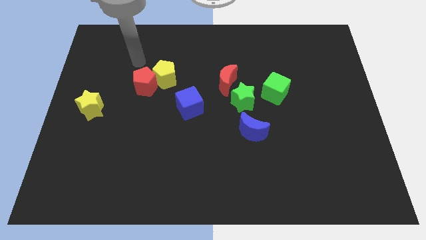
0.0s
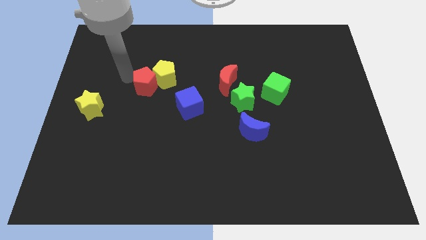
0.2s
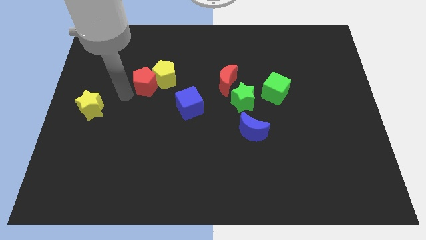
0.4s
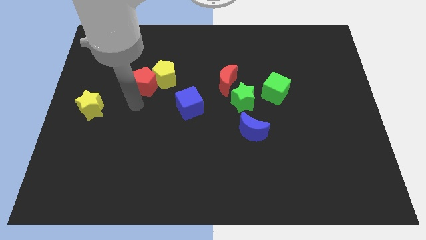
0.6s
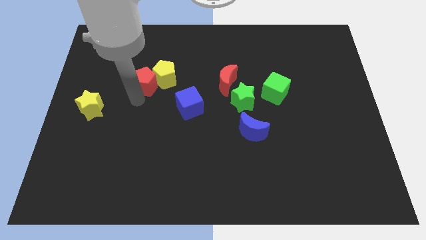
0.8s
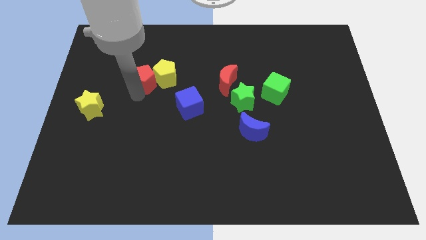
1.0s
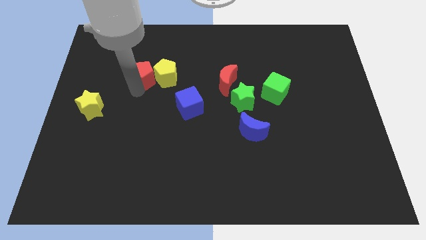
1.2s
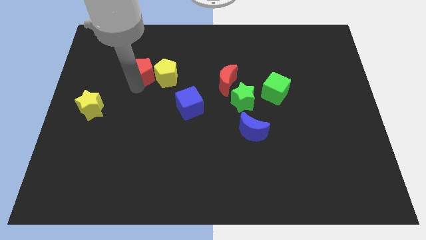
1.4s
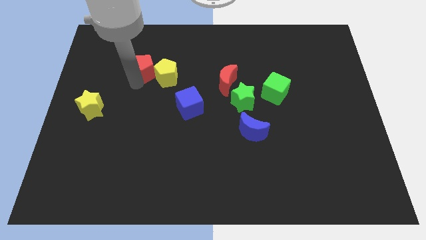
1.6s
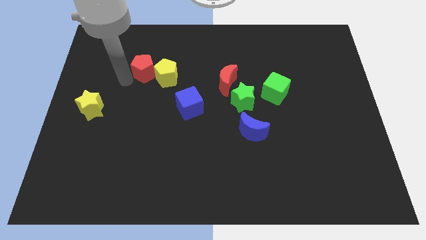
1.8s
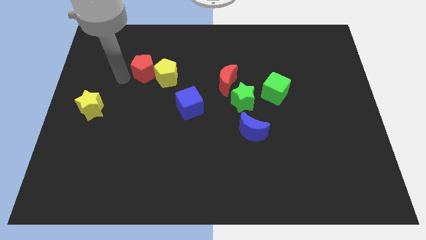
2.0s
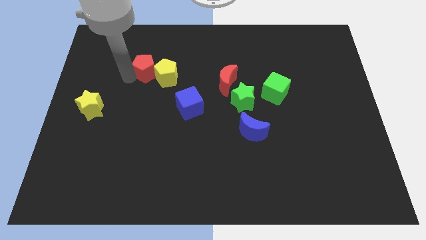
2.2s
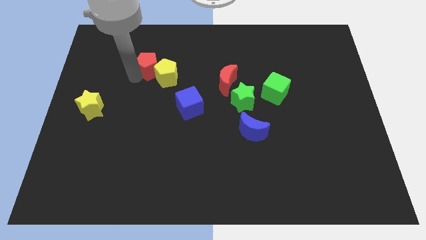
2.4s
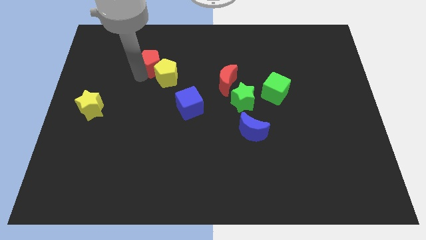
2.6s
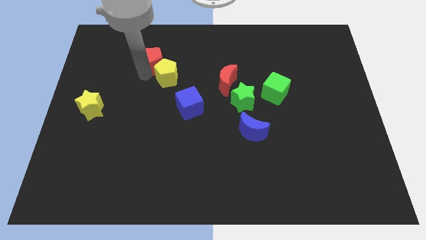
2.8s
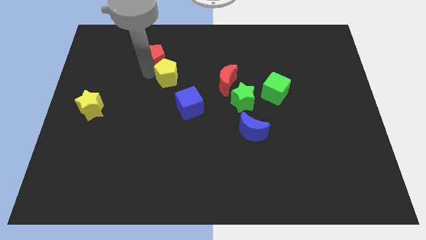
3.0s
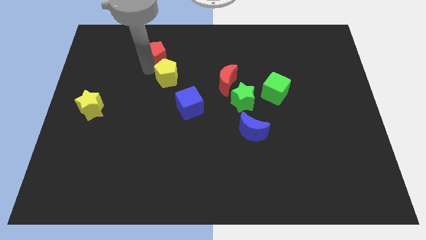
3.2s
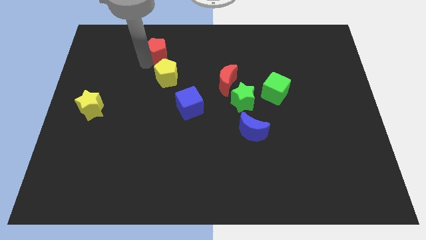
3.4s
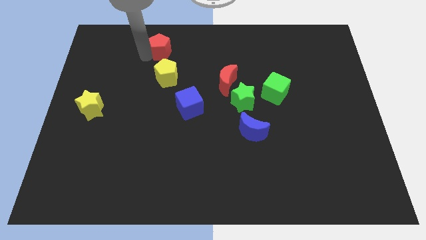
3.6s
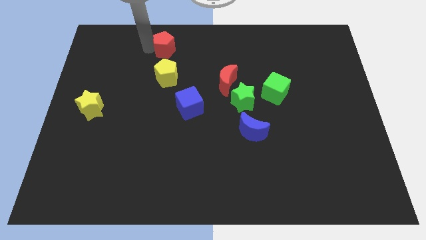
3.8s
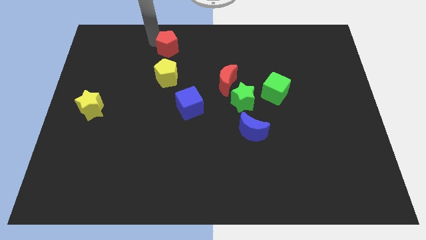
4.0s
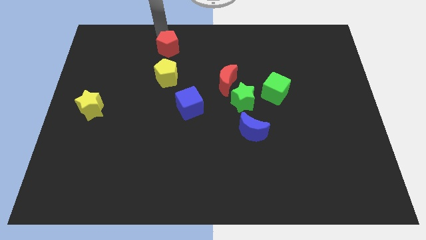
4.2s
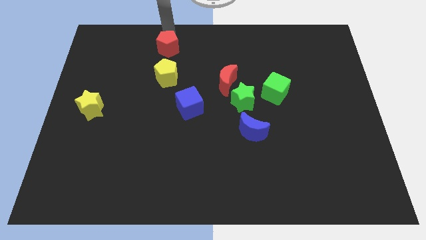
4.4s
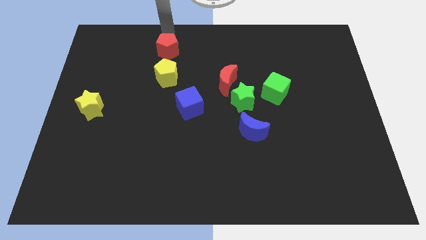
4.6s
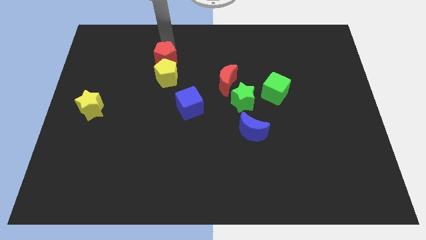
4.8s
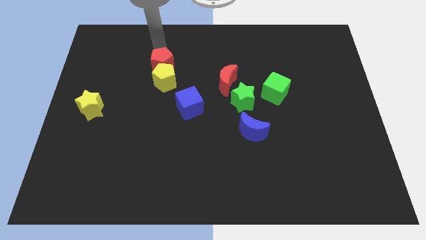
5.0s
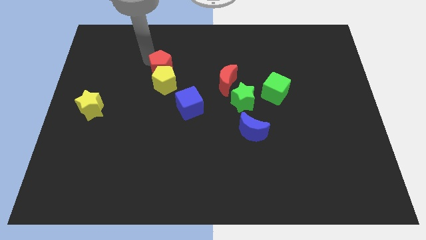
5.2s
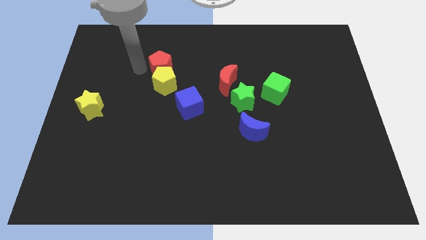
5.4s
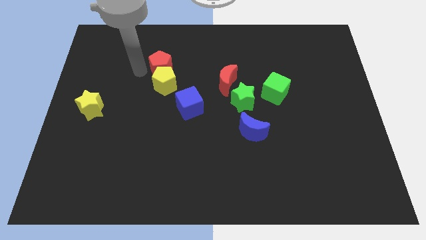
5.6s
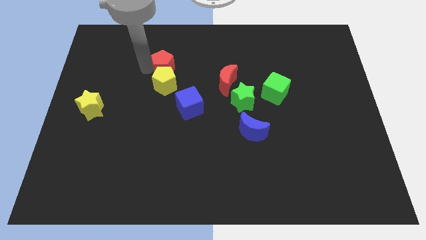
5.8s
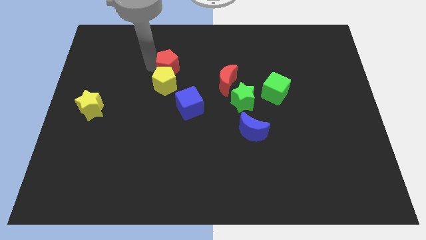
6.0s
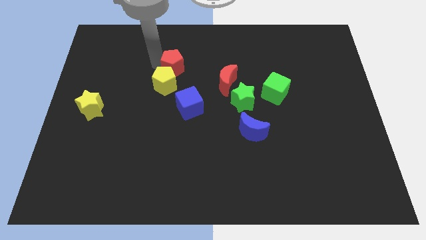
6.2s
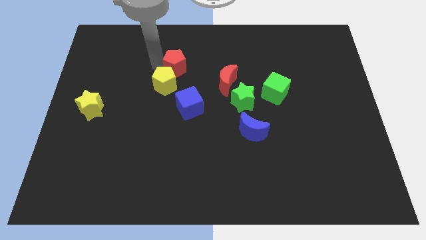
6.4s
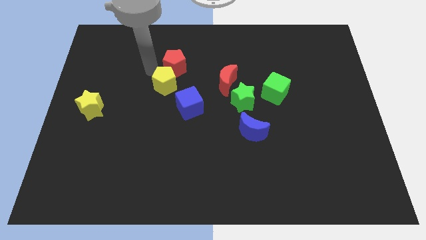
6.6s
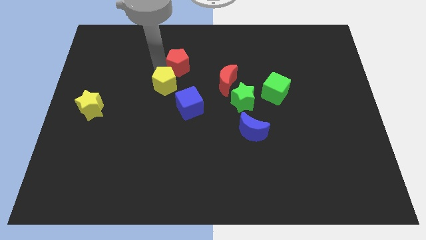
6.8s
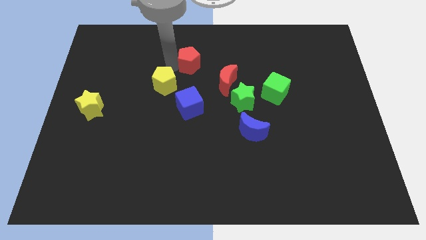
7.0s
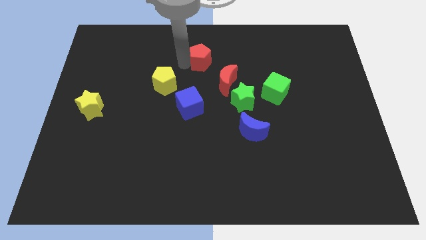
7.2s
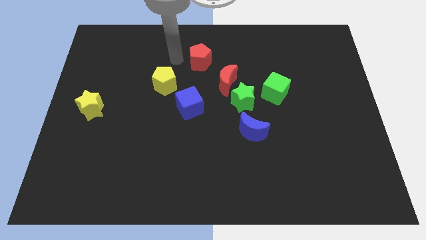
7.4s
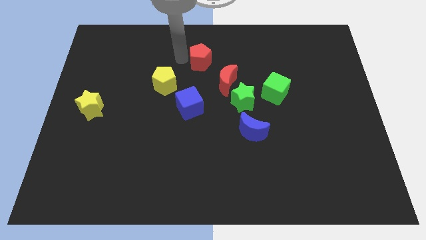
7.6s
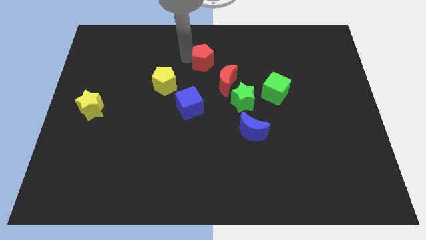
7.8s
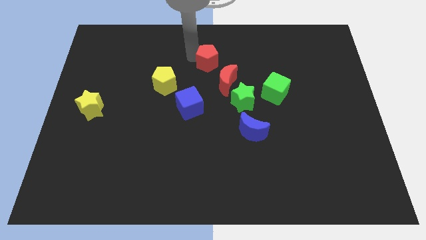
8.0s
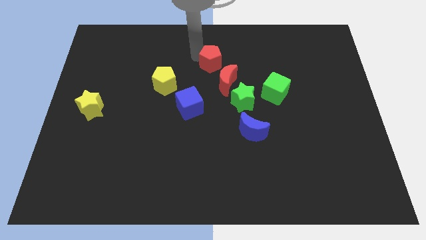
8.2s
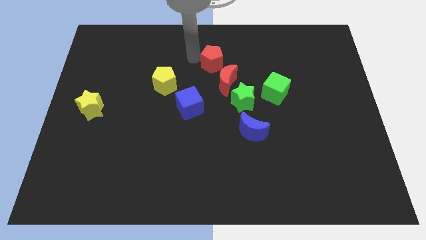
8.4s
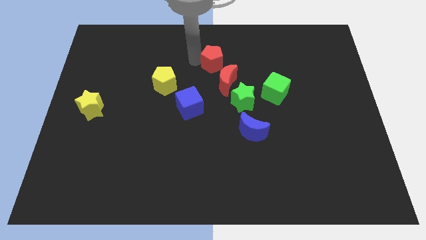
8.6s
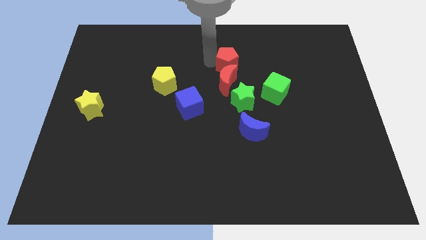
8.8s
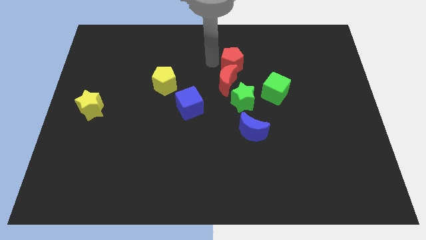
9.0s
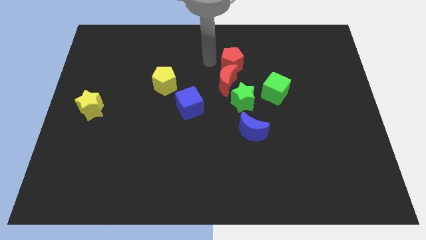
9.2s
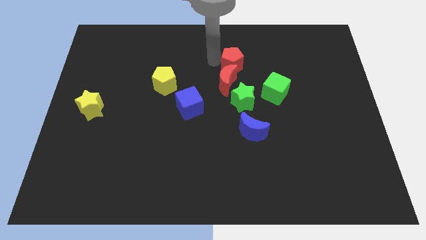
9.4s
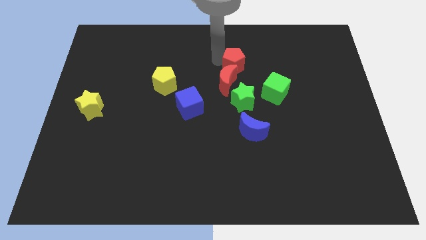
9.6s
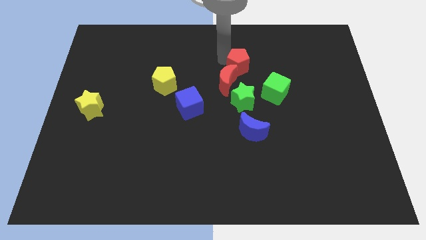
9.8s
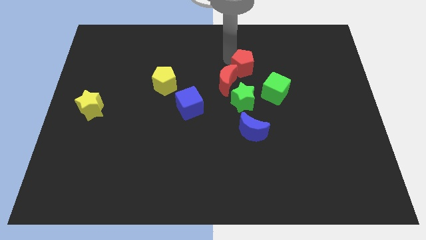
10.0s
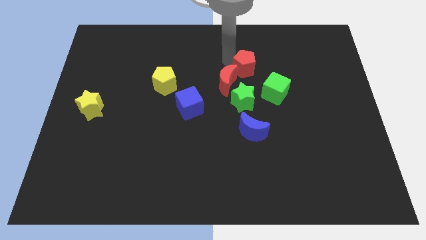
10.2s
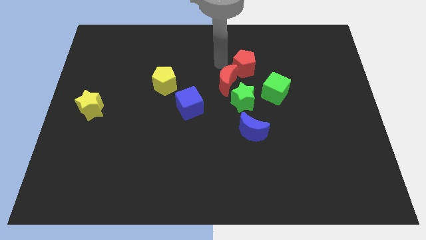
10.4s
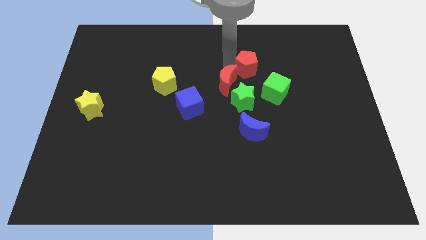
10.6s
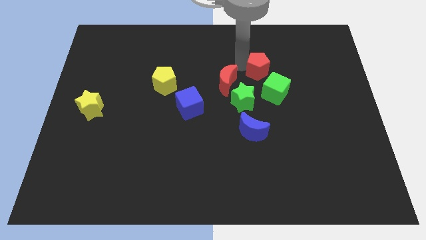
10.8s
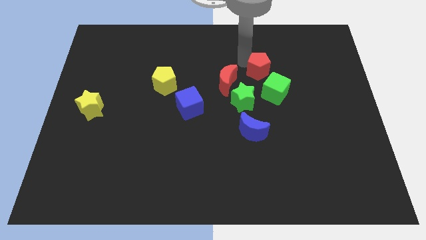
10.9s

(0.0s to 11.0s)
slide the red pentagon to the top right side of the green star

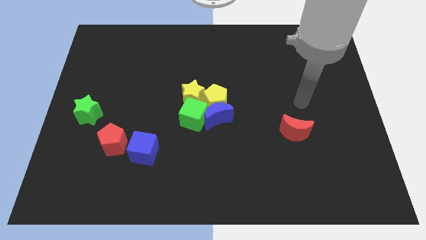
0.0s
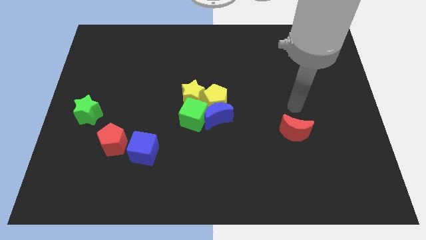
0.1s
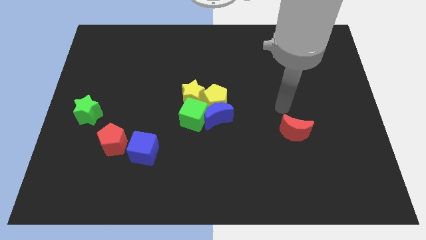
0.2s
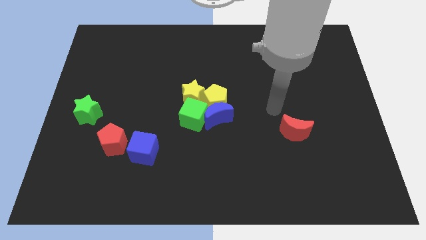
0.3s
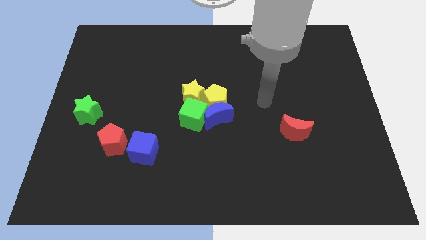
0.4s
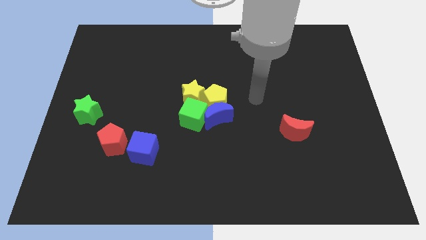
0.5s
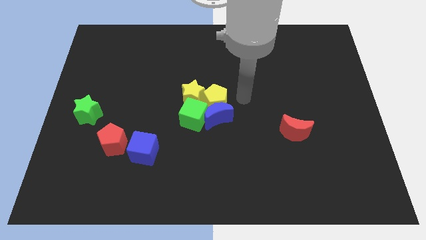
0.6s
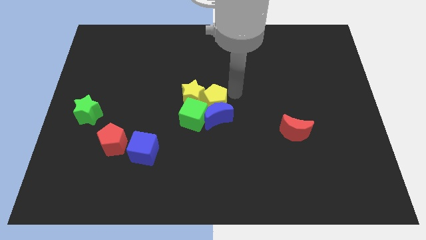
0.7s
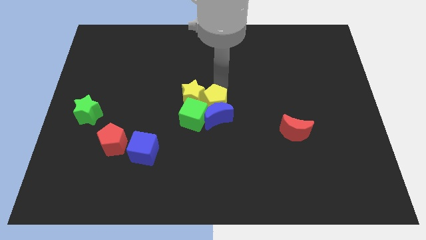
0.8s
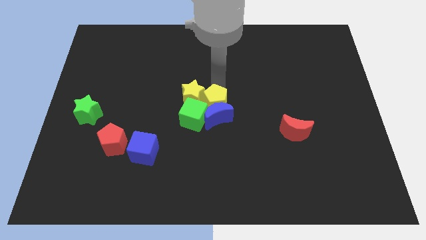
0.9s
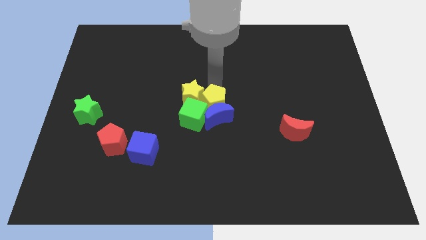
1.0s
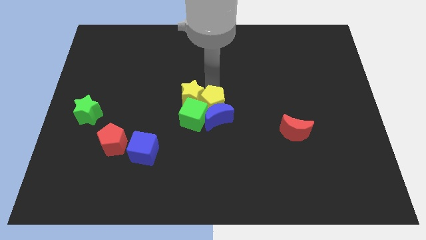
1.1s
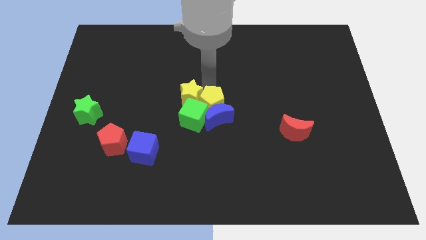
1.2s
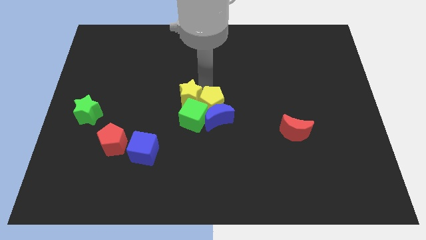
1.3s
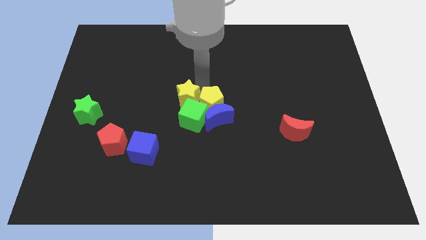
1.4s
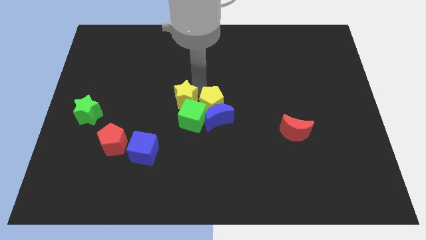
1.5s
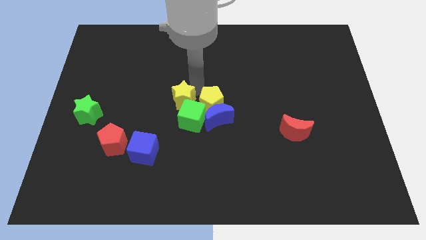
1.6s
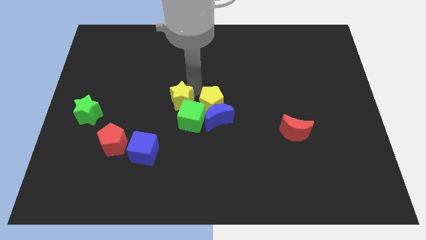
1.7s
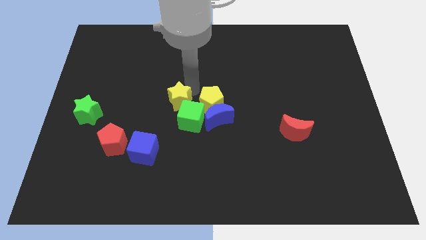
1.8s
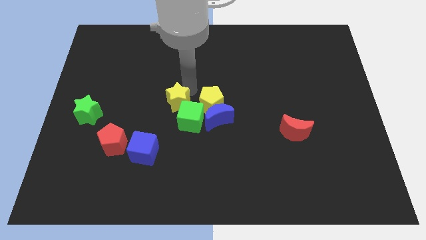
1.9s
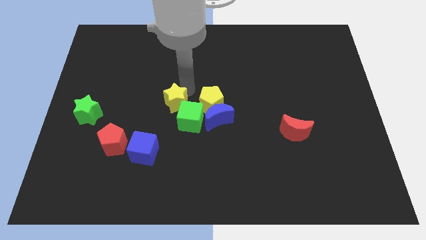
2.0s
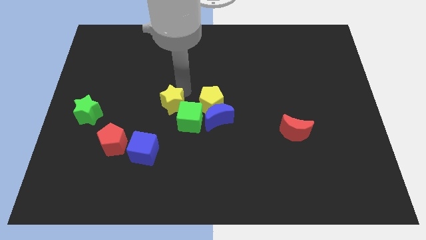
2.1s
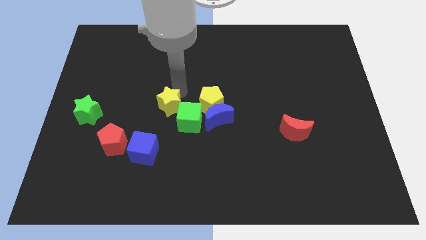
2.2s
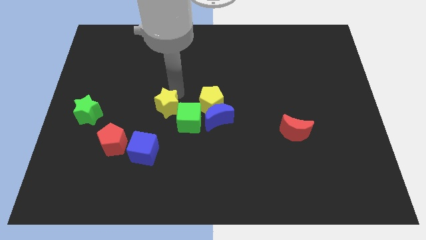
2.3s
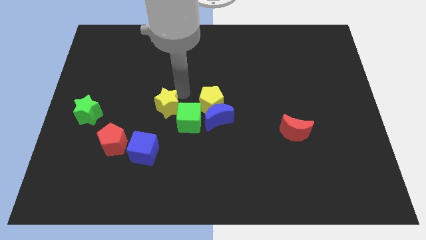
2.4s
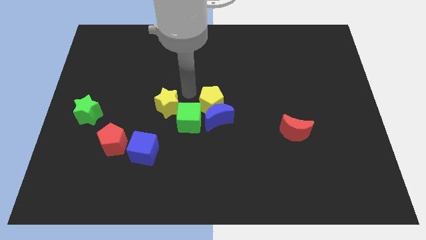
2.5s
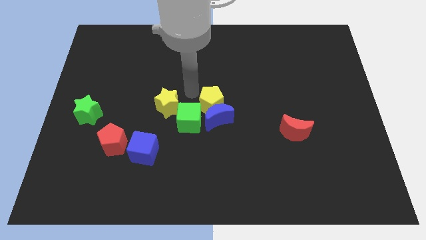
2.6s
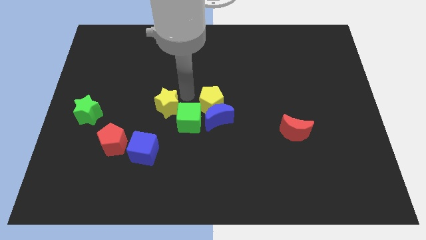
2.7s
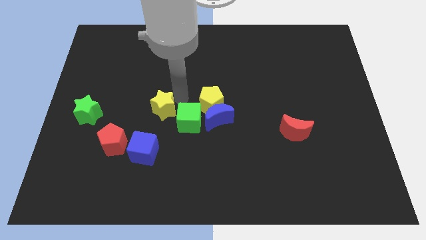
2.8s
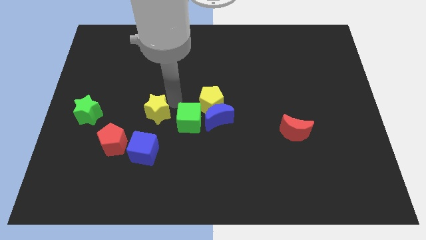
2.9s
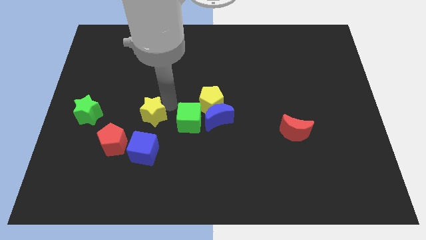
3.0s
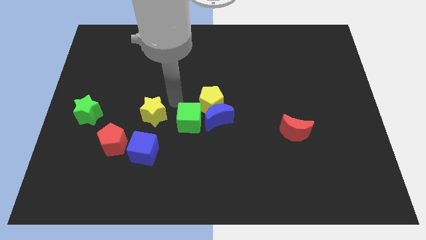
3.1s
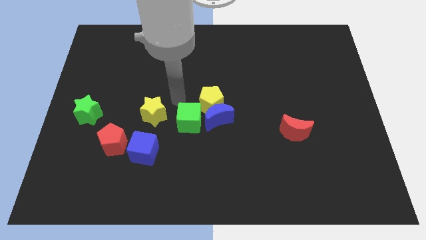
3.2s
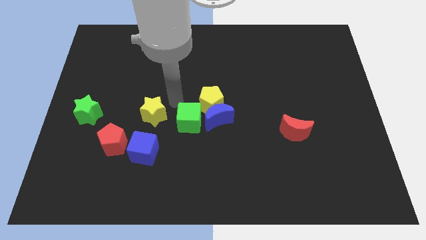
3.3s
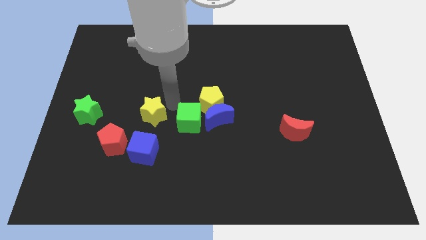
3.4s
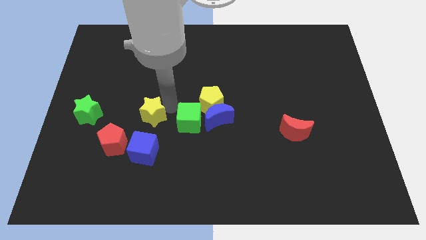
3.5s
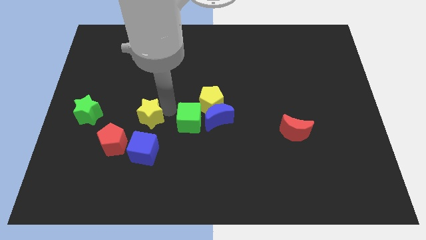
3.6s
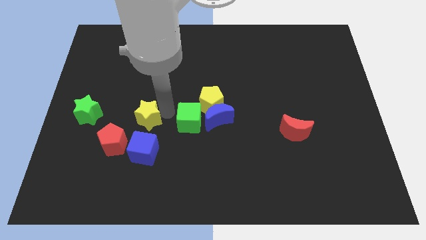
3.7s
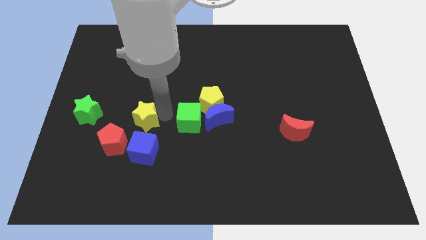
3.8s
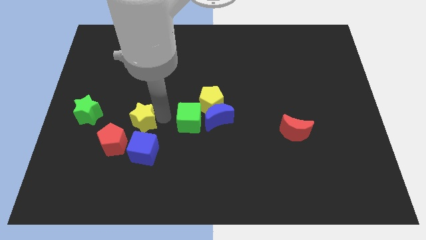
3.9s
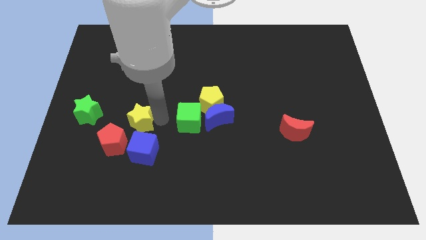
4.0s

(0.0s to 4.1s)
slide the yellow star to the top left of the blue cube
